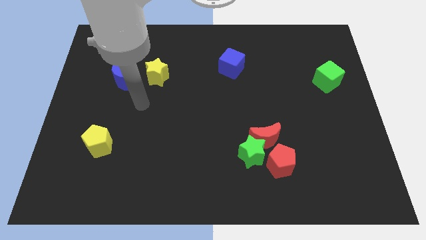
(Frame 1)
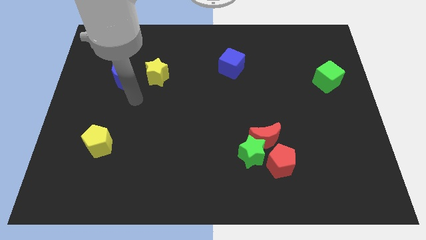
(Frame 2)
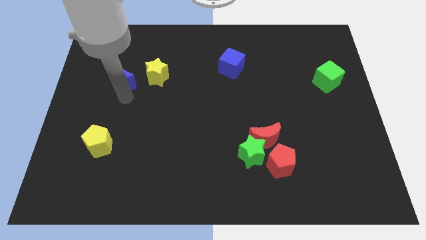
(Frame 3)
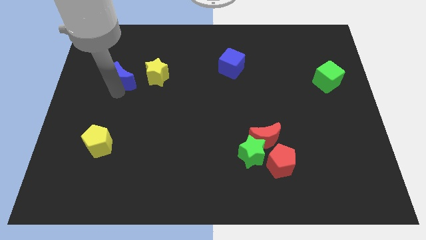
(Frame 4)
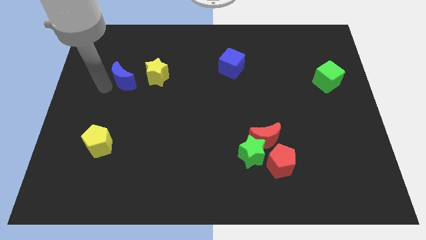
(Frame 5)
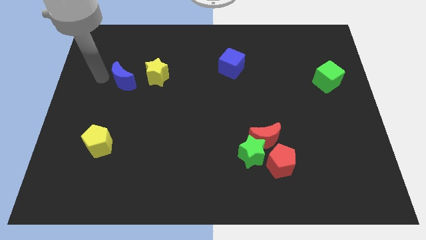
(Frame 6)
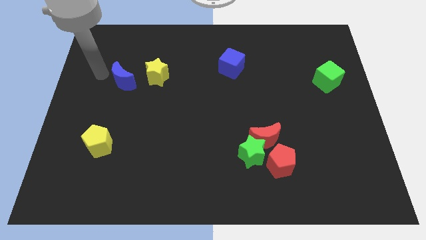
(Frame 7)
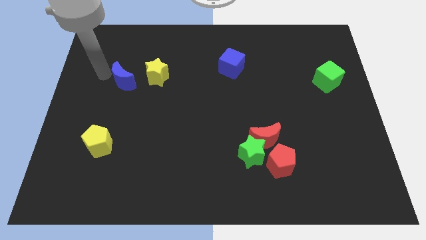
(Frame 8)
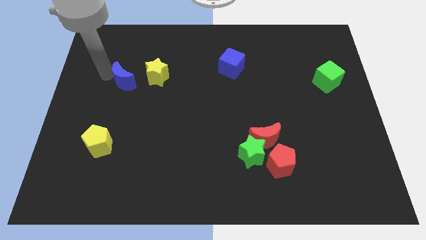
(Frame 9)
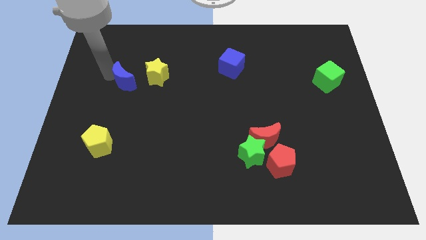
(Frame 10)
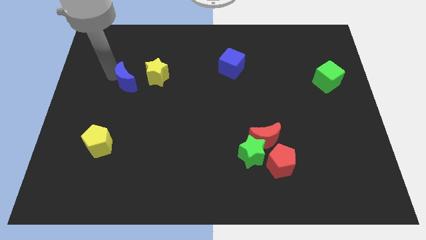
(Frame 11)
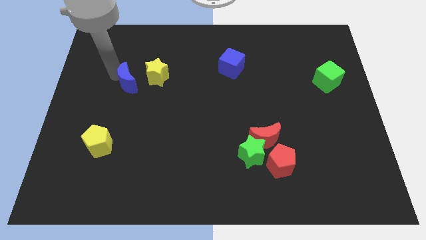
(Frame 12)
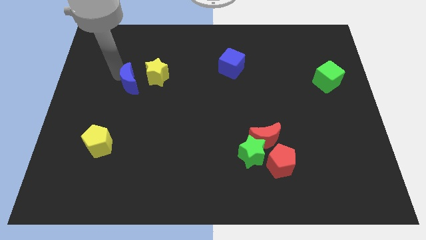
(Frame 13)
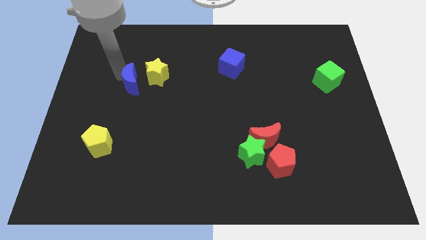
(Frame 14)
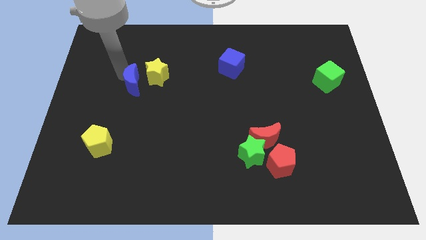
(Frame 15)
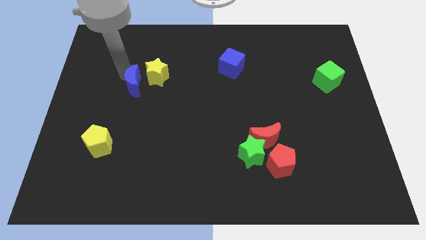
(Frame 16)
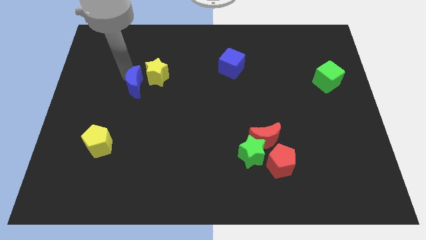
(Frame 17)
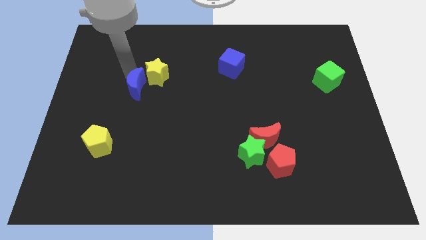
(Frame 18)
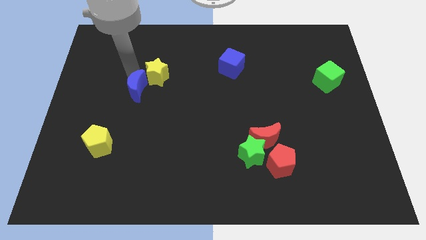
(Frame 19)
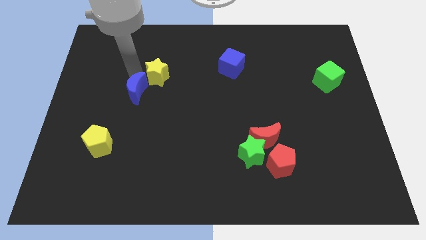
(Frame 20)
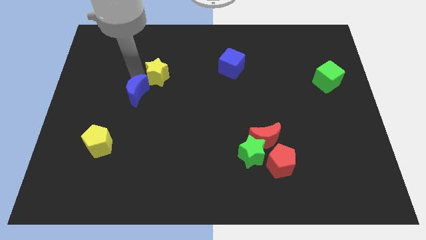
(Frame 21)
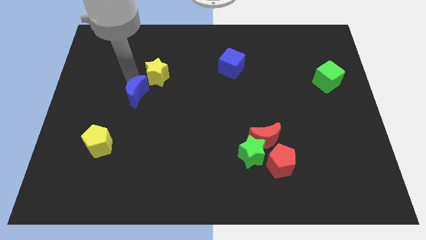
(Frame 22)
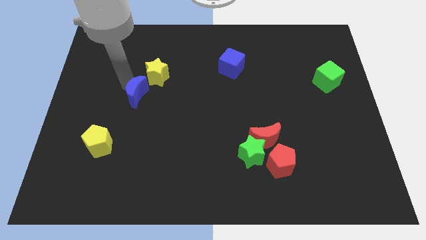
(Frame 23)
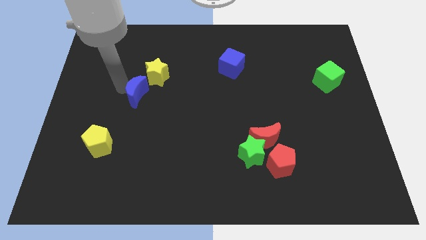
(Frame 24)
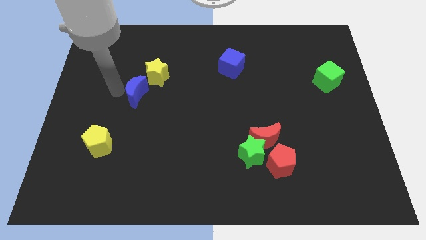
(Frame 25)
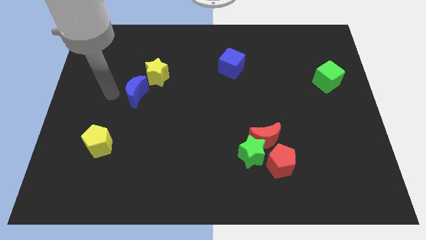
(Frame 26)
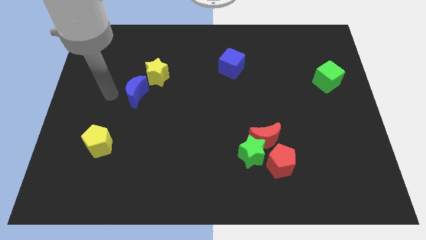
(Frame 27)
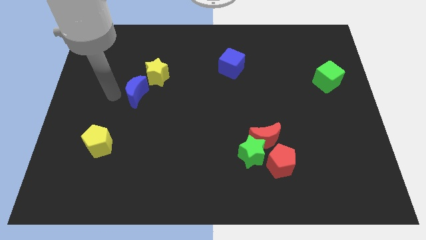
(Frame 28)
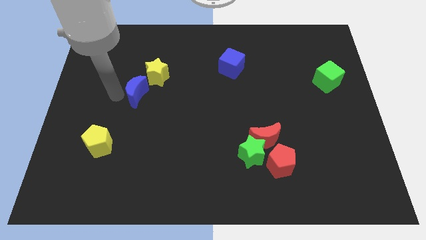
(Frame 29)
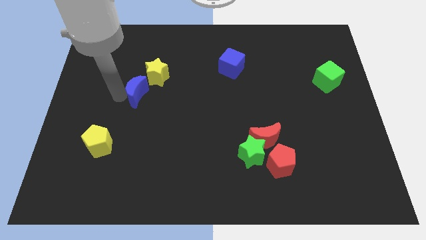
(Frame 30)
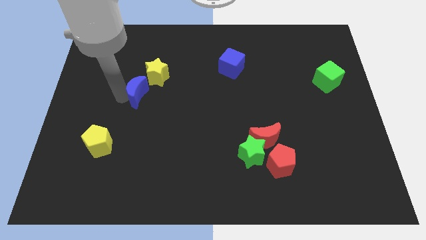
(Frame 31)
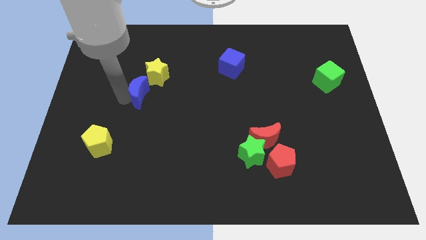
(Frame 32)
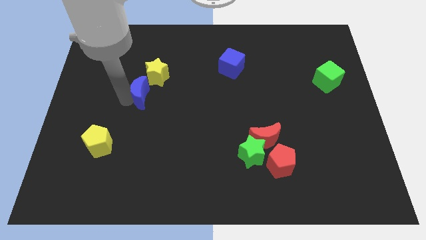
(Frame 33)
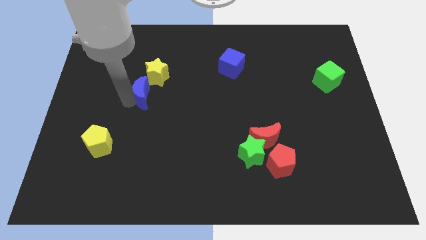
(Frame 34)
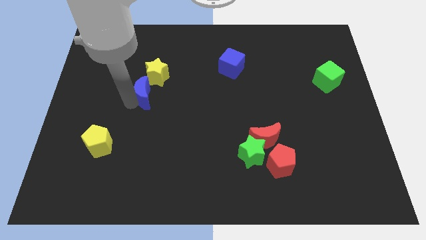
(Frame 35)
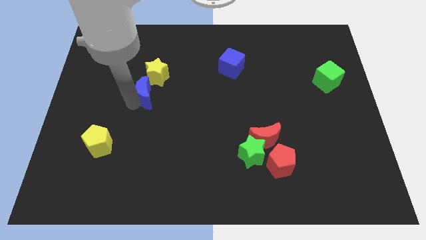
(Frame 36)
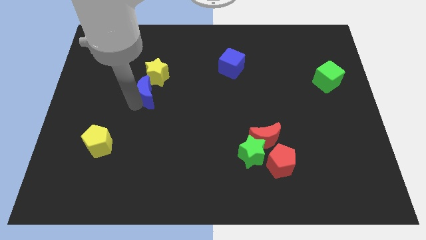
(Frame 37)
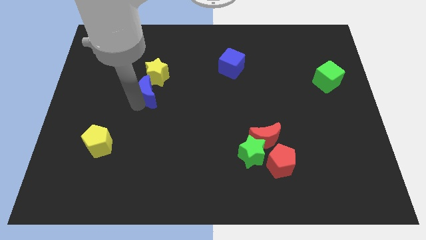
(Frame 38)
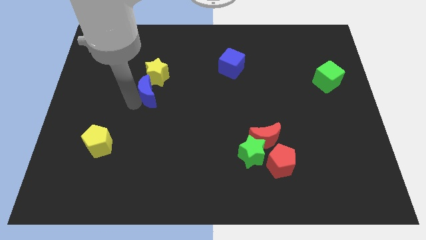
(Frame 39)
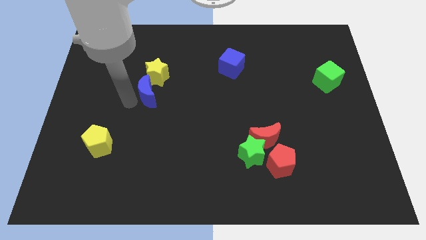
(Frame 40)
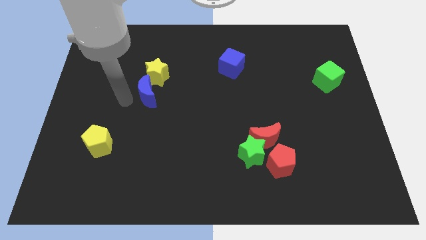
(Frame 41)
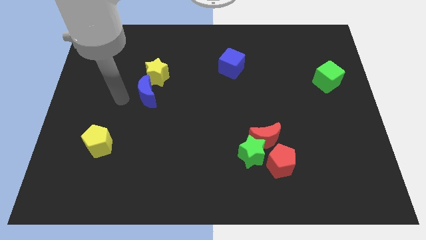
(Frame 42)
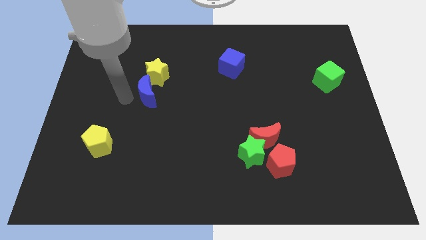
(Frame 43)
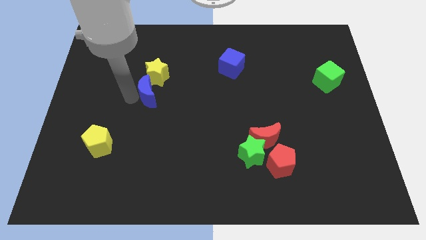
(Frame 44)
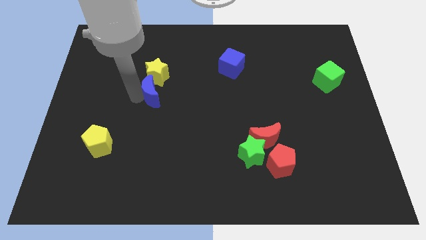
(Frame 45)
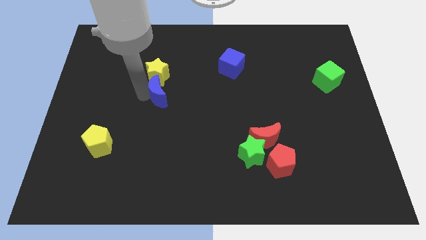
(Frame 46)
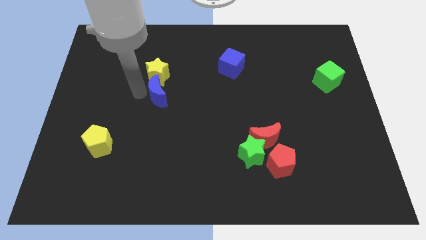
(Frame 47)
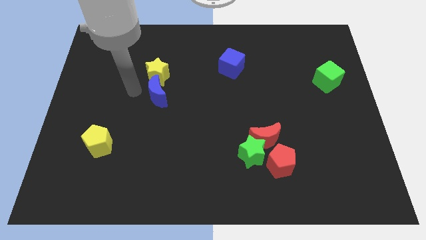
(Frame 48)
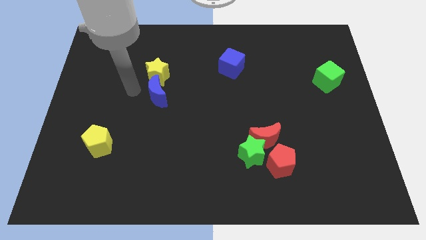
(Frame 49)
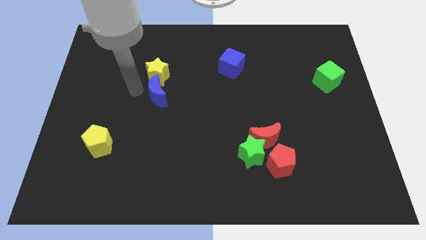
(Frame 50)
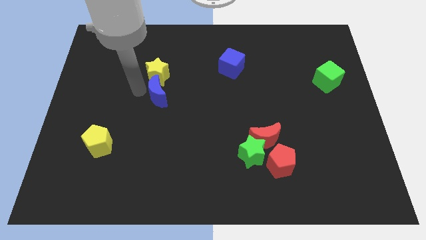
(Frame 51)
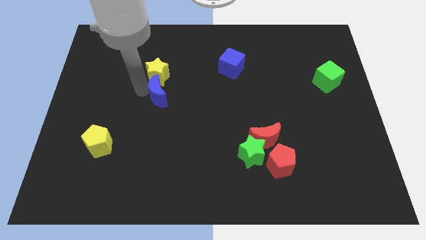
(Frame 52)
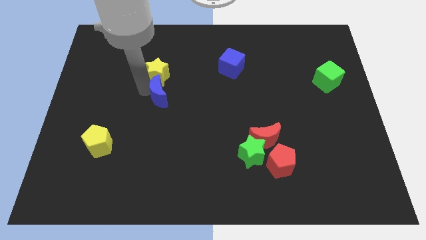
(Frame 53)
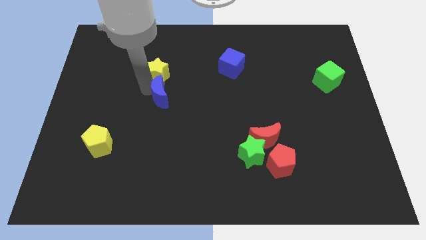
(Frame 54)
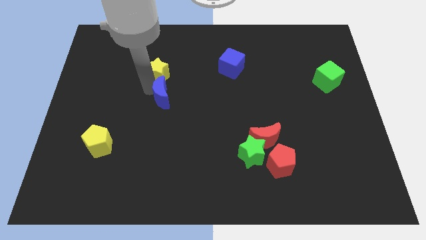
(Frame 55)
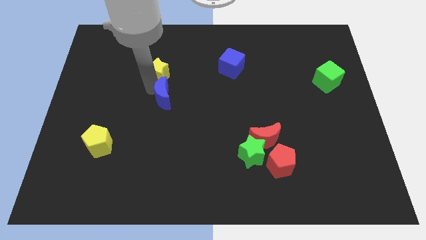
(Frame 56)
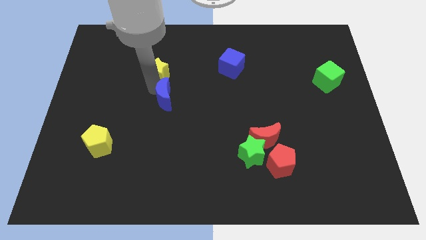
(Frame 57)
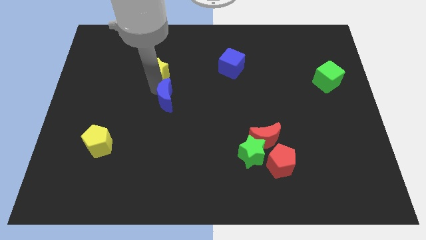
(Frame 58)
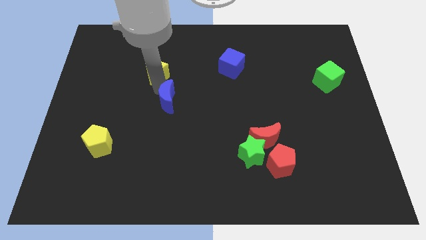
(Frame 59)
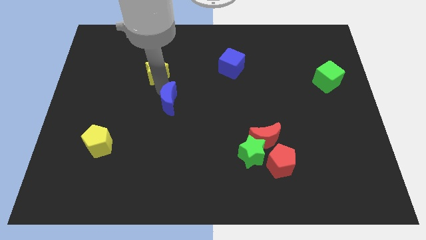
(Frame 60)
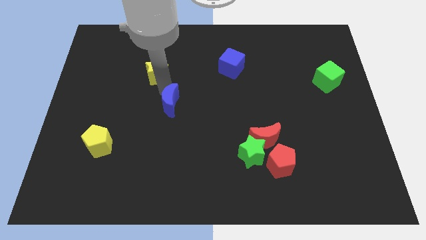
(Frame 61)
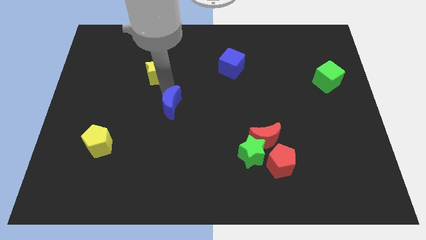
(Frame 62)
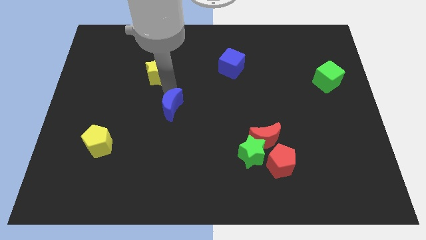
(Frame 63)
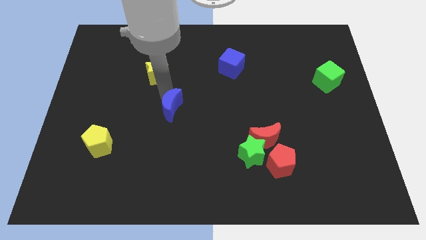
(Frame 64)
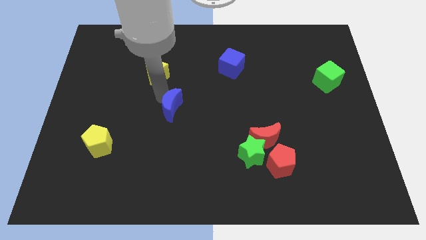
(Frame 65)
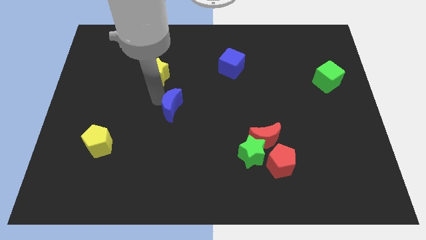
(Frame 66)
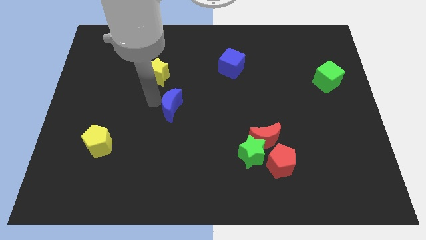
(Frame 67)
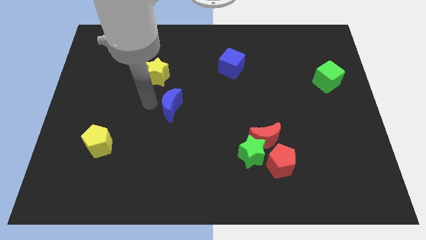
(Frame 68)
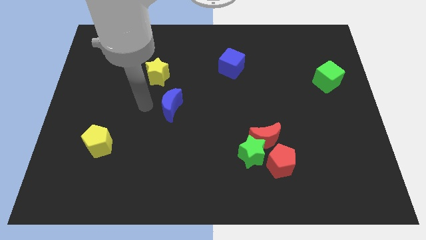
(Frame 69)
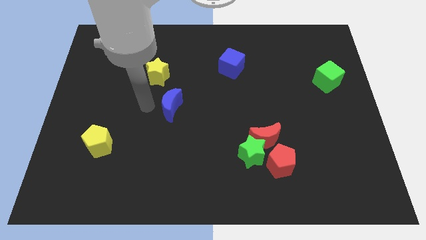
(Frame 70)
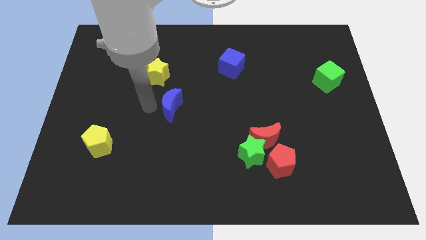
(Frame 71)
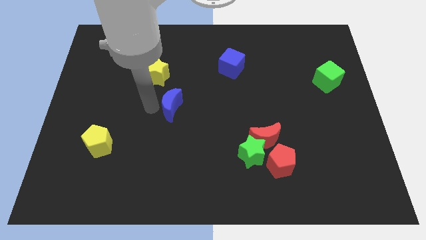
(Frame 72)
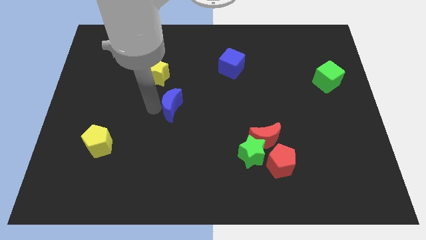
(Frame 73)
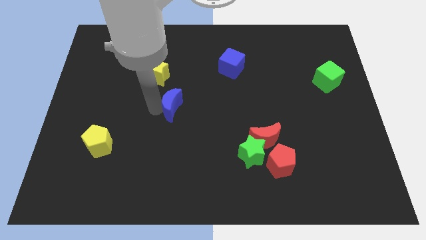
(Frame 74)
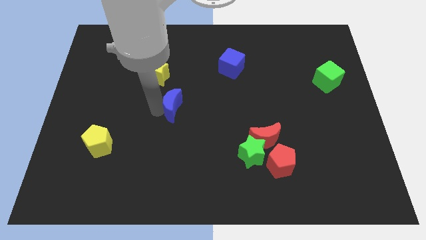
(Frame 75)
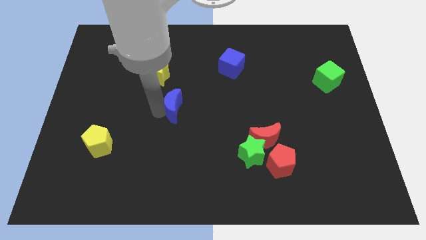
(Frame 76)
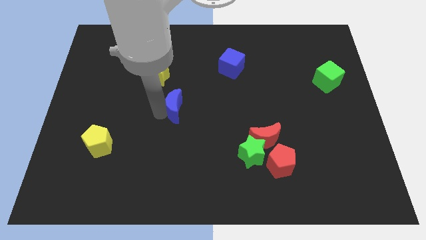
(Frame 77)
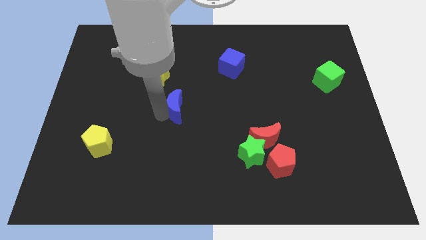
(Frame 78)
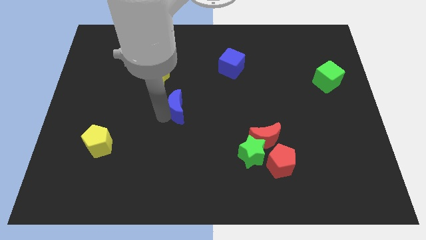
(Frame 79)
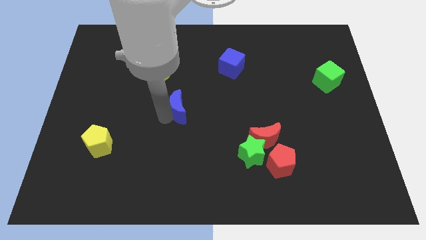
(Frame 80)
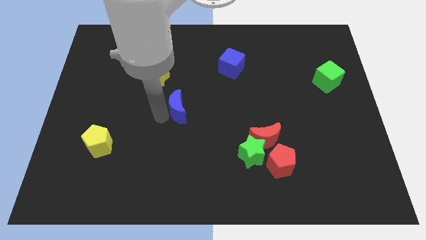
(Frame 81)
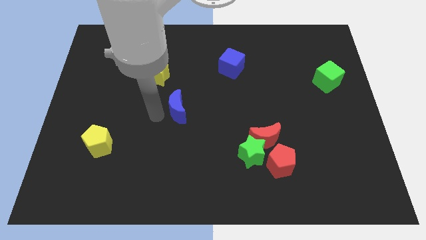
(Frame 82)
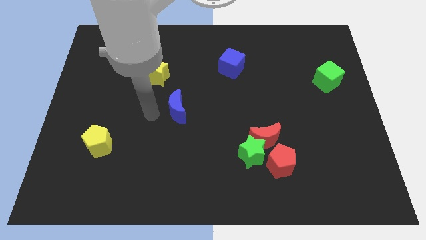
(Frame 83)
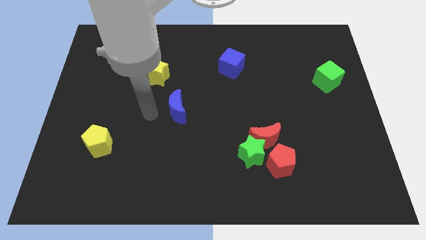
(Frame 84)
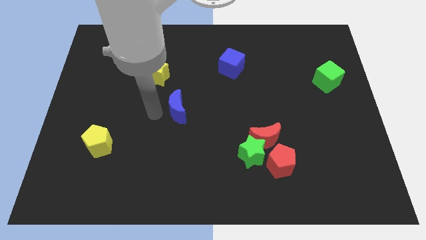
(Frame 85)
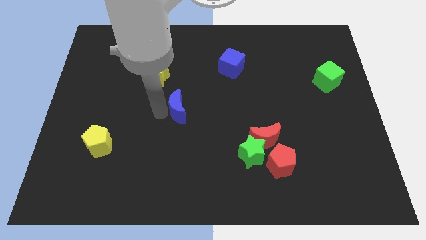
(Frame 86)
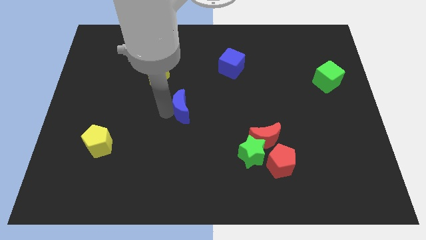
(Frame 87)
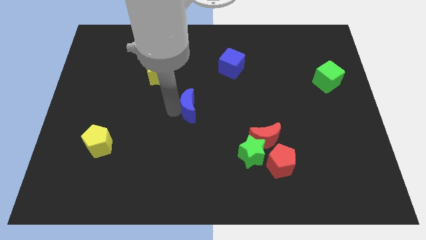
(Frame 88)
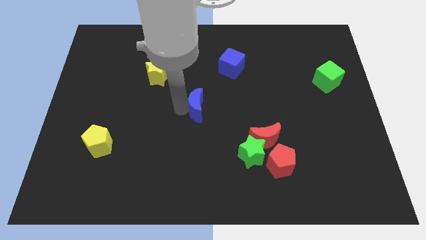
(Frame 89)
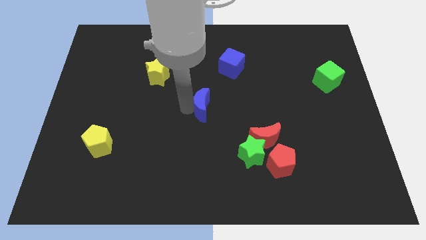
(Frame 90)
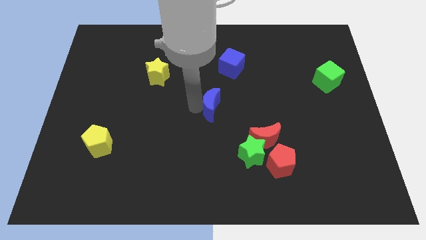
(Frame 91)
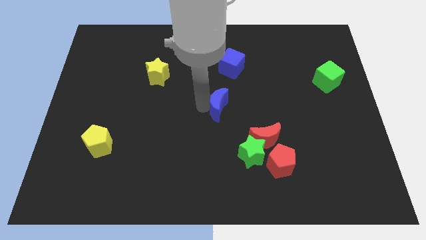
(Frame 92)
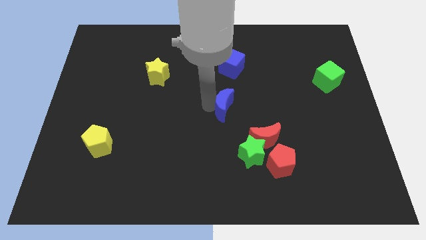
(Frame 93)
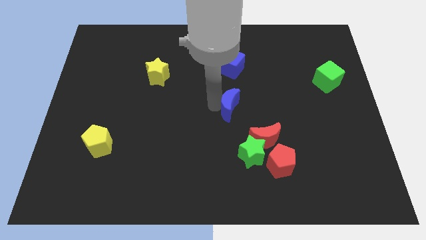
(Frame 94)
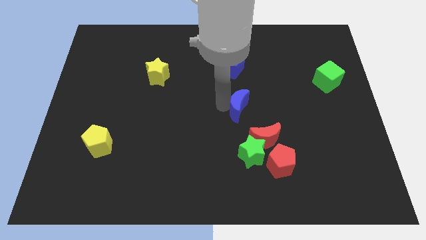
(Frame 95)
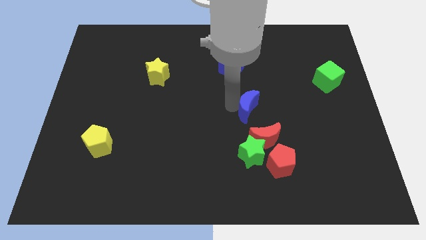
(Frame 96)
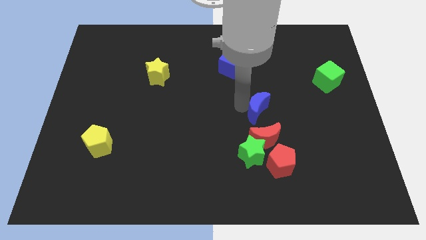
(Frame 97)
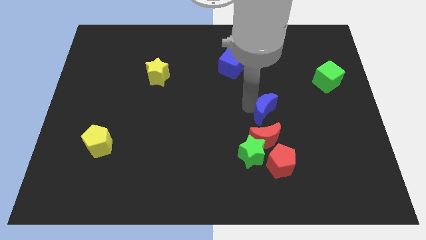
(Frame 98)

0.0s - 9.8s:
put the blue moon above the red pentagon
